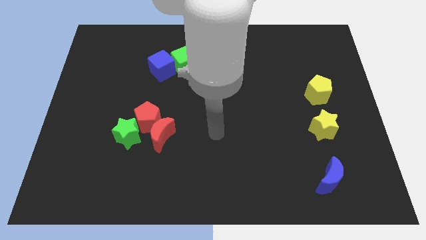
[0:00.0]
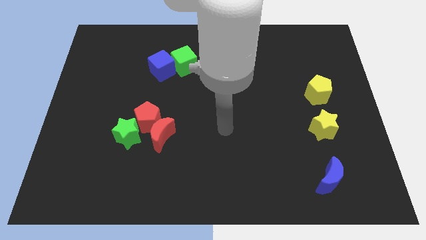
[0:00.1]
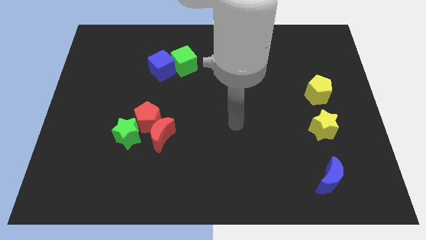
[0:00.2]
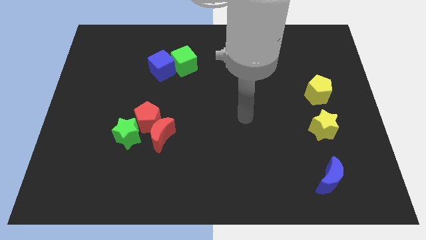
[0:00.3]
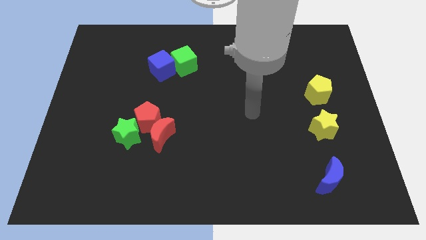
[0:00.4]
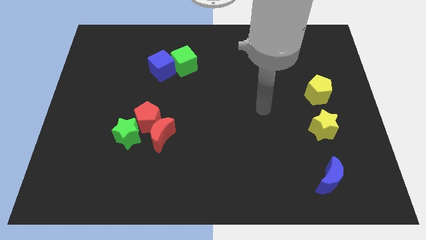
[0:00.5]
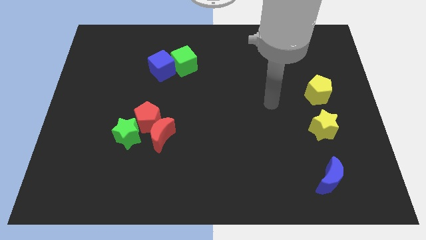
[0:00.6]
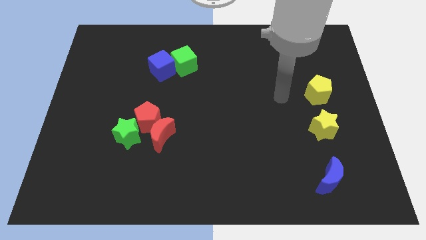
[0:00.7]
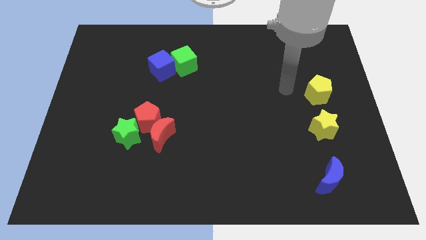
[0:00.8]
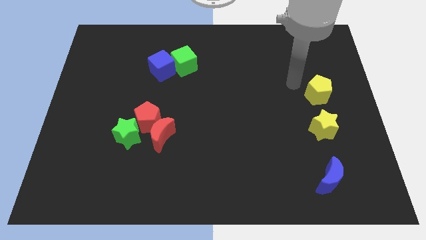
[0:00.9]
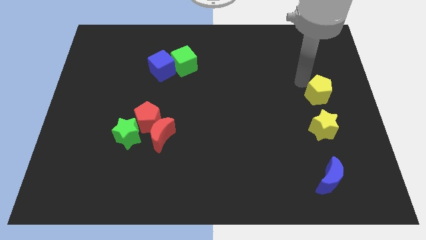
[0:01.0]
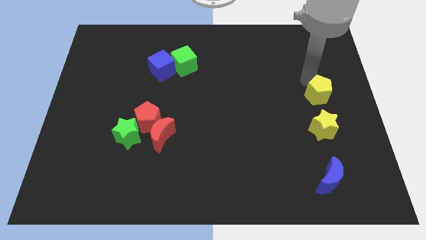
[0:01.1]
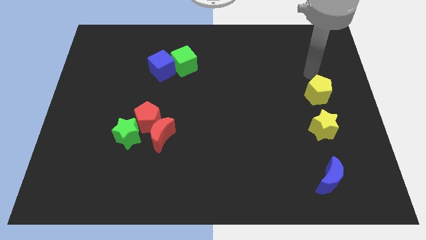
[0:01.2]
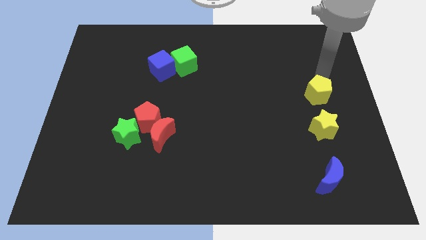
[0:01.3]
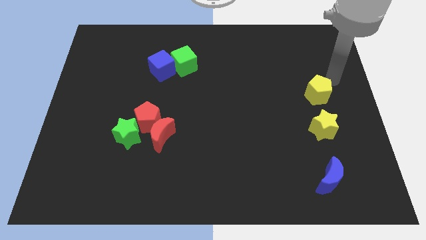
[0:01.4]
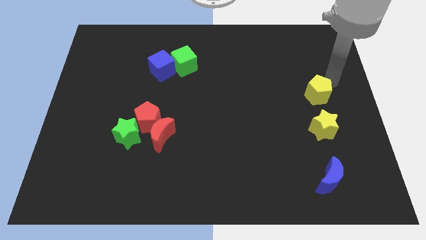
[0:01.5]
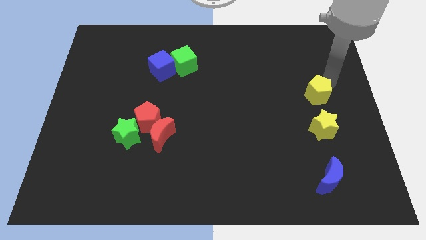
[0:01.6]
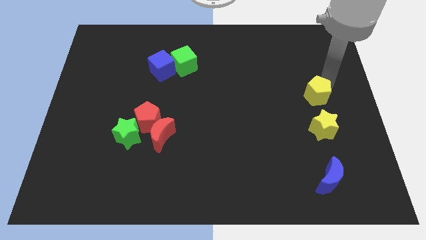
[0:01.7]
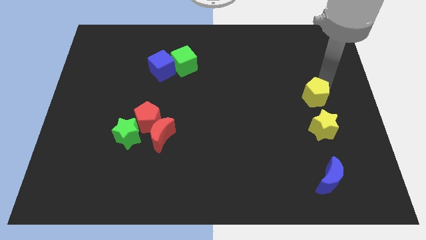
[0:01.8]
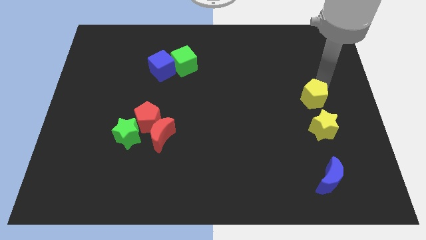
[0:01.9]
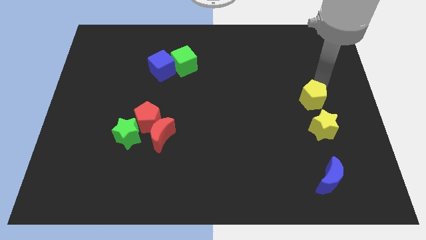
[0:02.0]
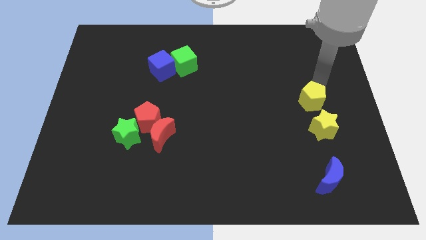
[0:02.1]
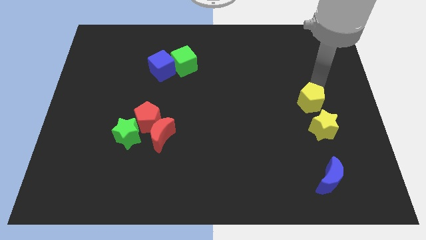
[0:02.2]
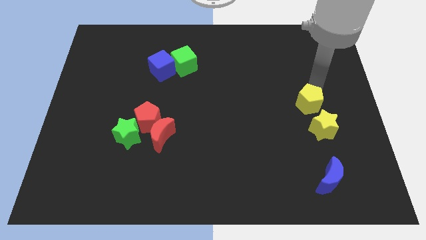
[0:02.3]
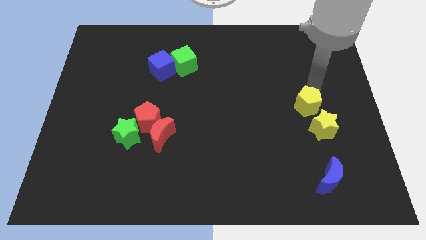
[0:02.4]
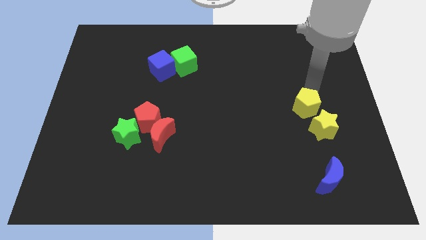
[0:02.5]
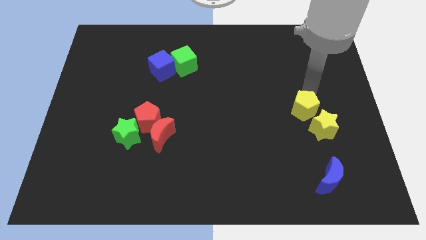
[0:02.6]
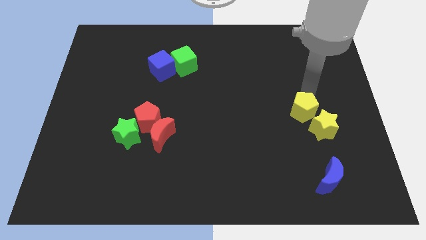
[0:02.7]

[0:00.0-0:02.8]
slightly slide the yellow pentagon down and to the left diagonally

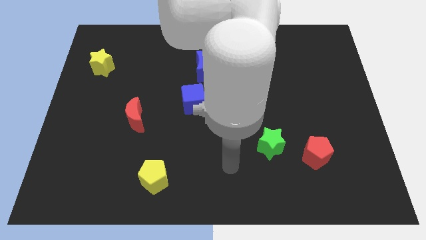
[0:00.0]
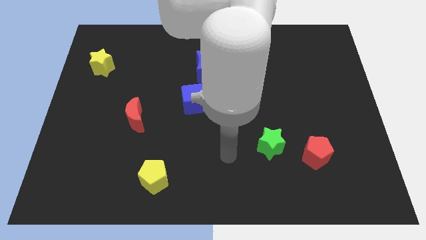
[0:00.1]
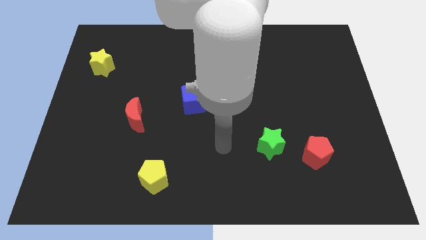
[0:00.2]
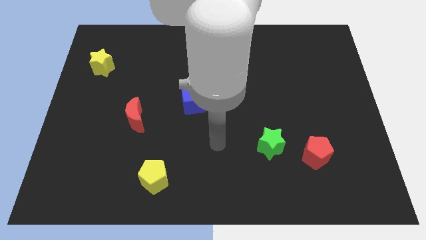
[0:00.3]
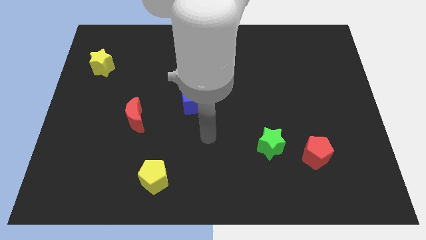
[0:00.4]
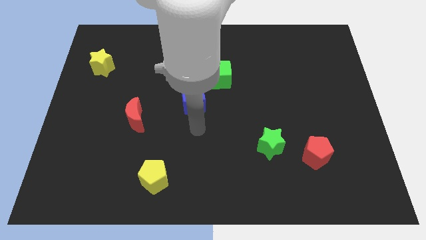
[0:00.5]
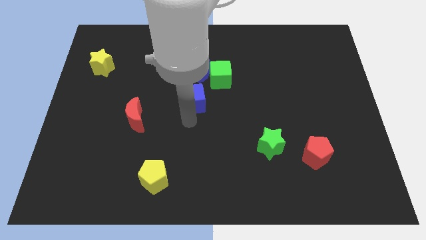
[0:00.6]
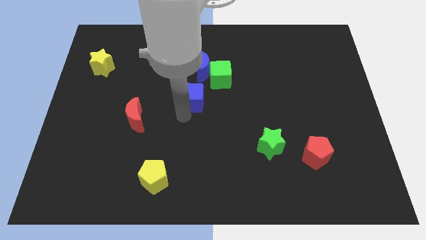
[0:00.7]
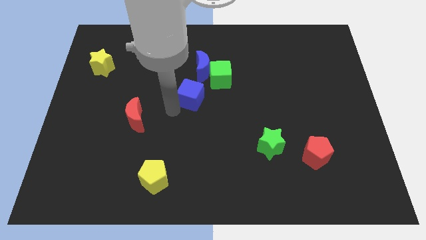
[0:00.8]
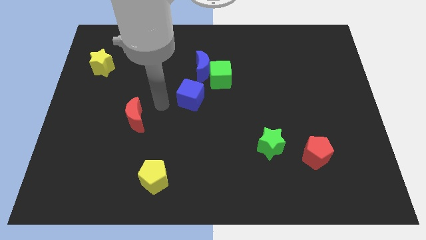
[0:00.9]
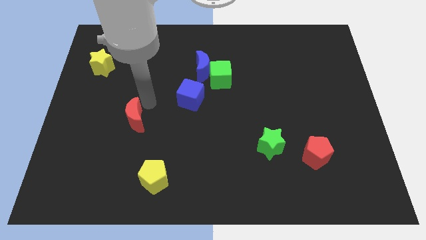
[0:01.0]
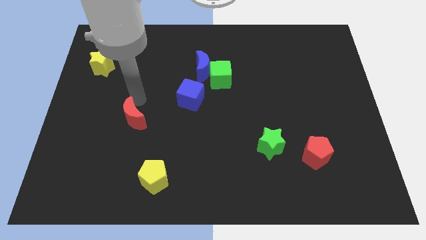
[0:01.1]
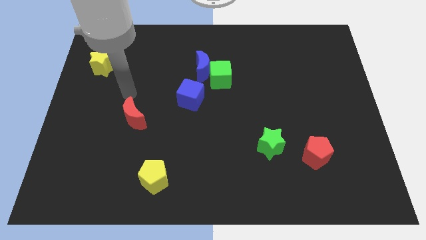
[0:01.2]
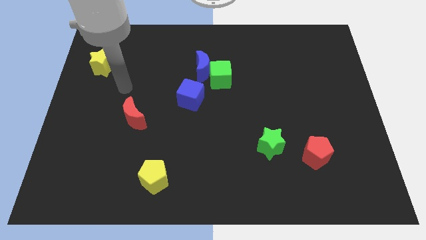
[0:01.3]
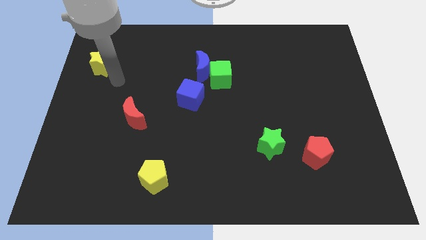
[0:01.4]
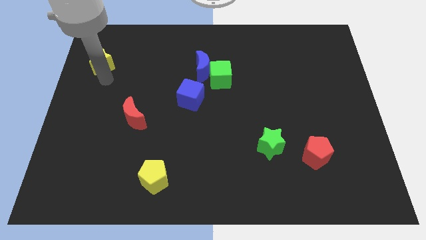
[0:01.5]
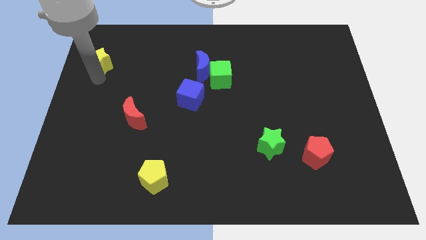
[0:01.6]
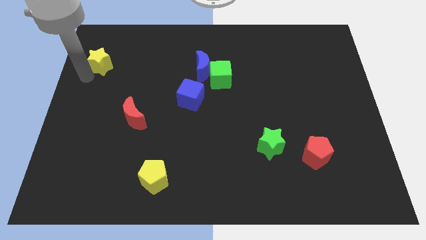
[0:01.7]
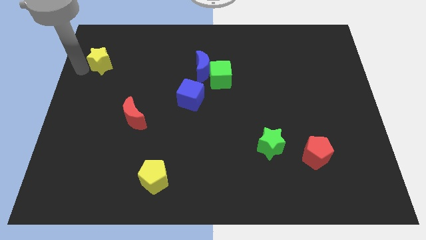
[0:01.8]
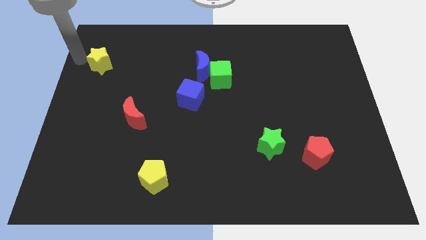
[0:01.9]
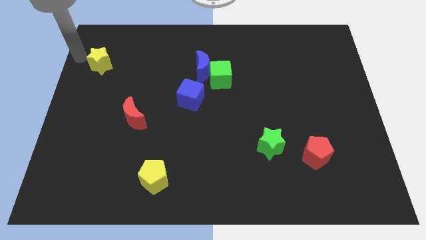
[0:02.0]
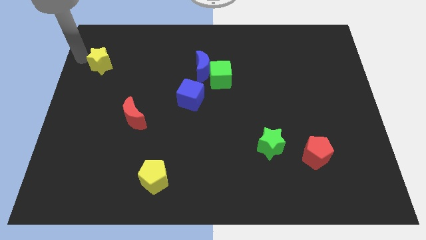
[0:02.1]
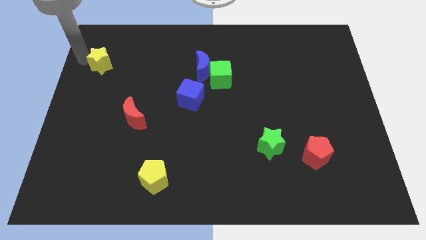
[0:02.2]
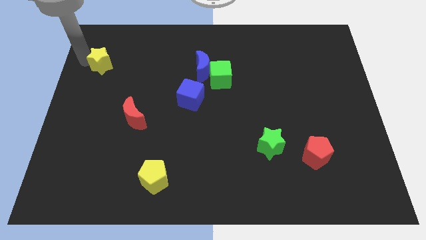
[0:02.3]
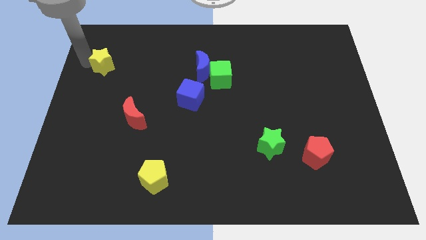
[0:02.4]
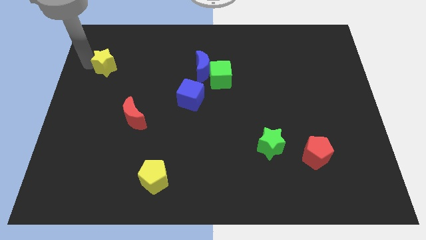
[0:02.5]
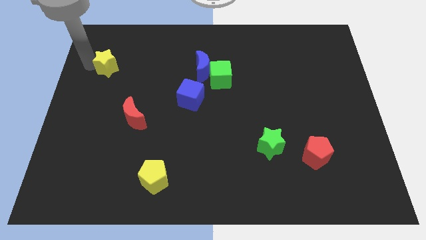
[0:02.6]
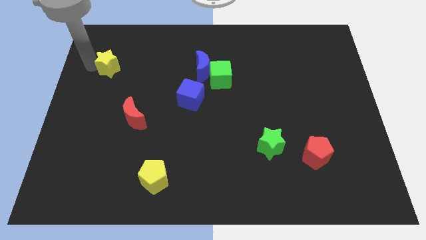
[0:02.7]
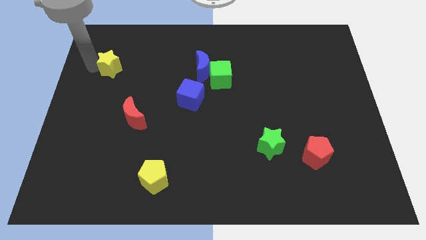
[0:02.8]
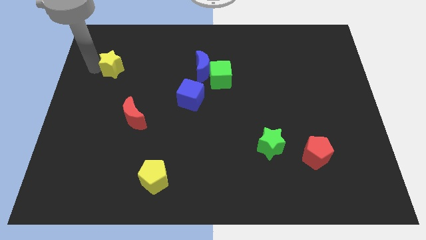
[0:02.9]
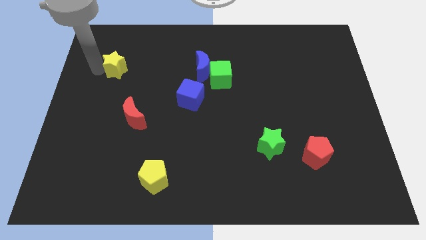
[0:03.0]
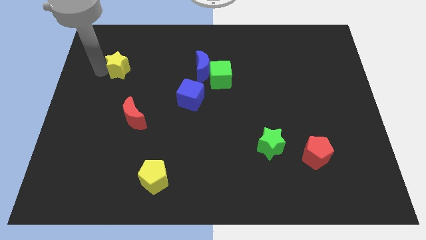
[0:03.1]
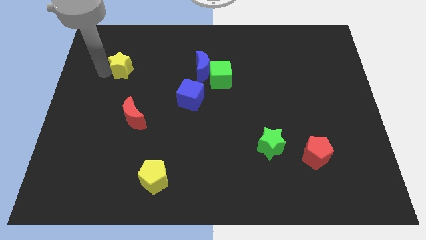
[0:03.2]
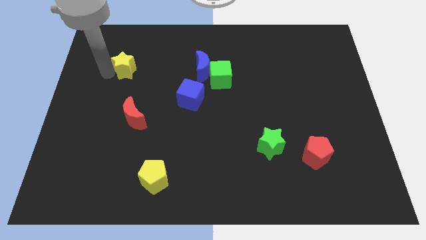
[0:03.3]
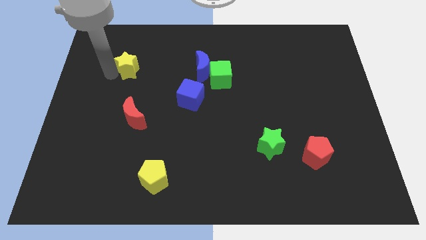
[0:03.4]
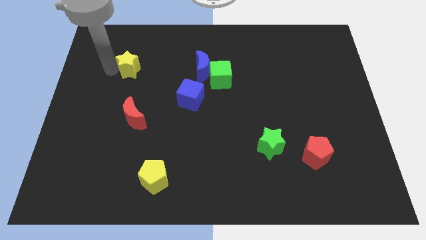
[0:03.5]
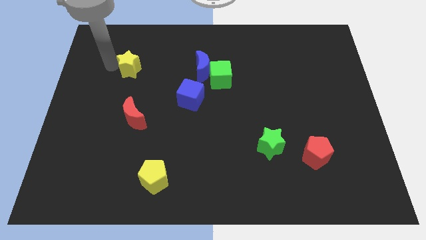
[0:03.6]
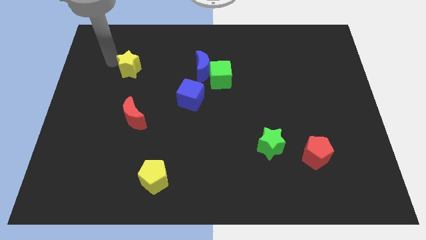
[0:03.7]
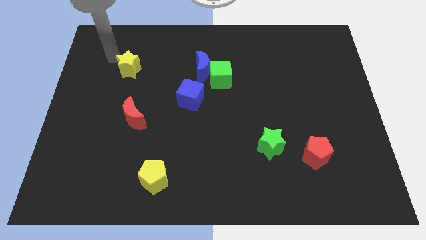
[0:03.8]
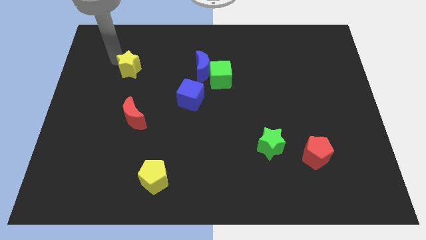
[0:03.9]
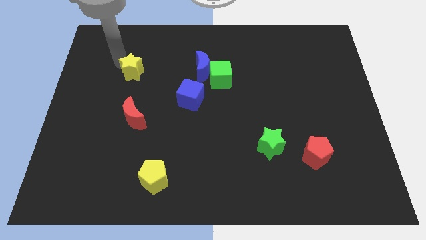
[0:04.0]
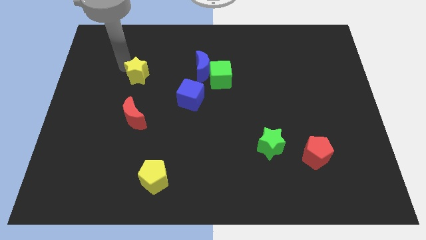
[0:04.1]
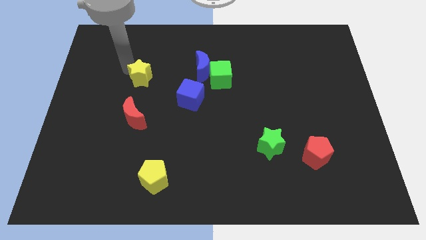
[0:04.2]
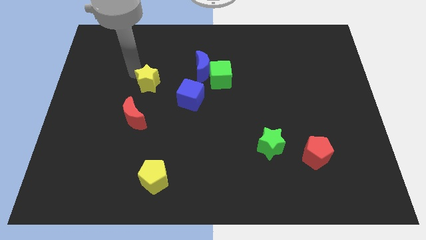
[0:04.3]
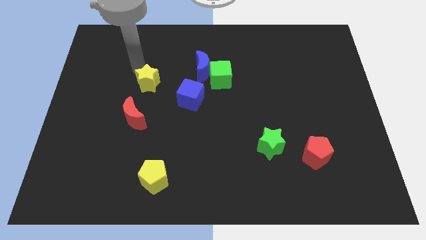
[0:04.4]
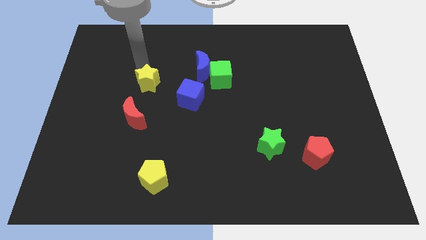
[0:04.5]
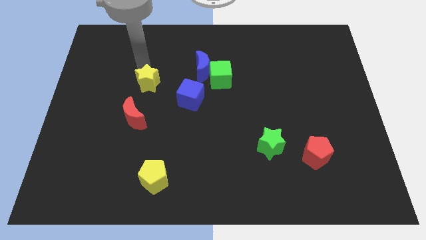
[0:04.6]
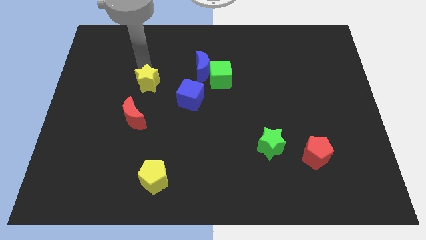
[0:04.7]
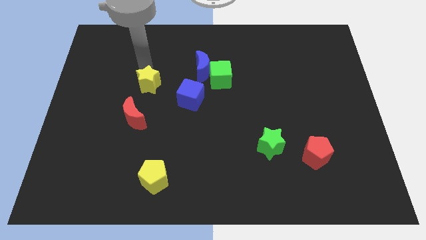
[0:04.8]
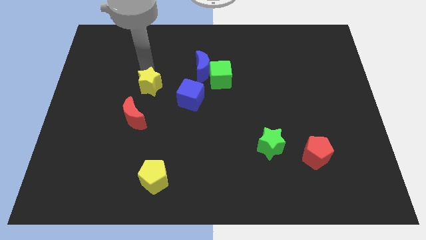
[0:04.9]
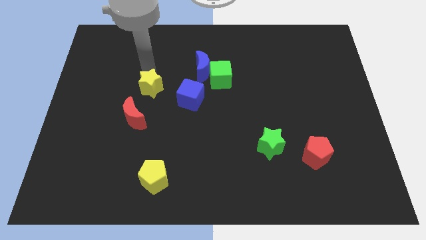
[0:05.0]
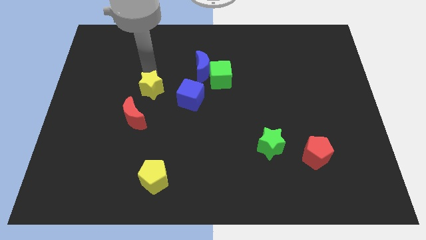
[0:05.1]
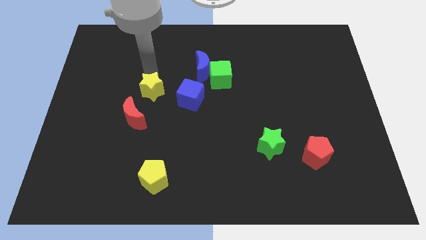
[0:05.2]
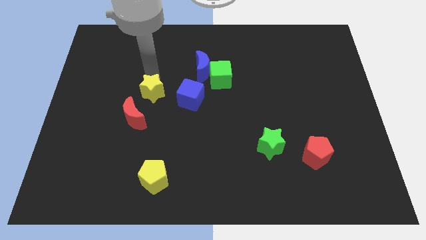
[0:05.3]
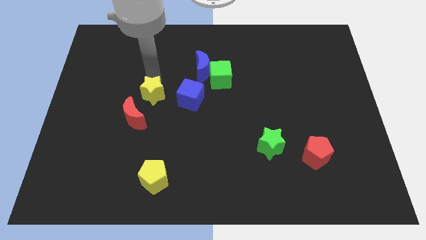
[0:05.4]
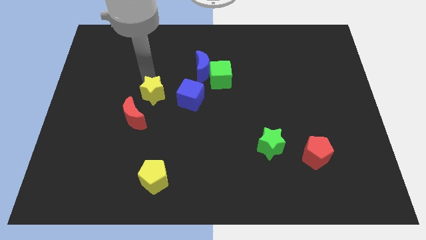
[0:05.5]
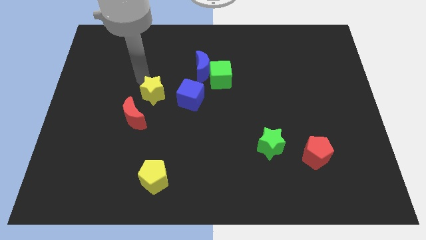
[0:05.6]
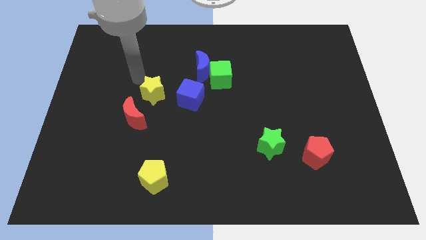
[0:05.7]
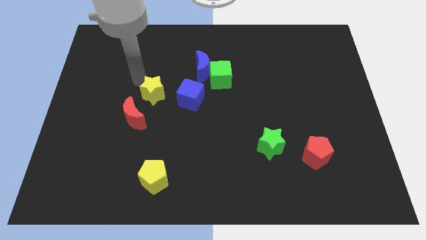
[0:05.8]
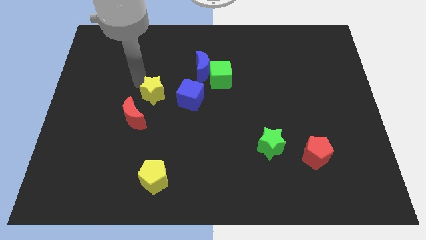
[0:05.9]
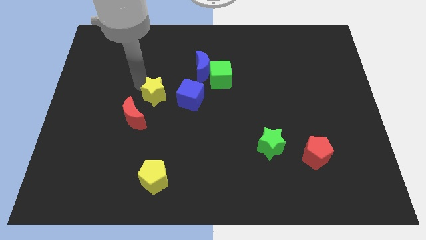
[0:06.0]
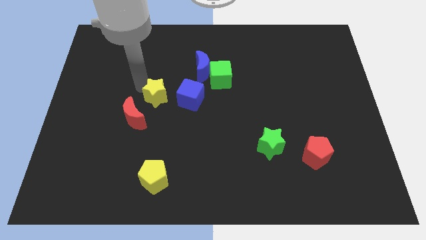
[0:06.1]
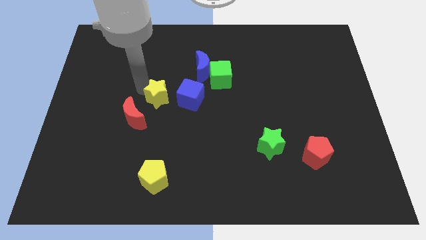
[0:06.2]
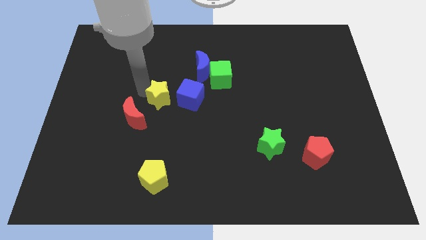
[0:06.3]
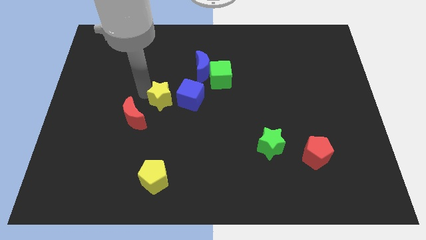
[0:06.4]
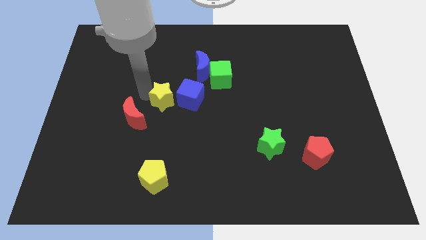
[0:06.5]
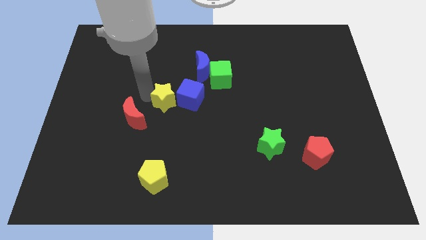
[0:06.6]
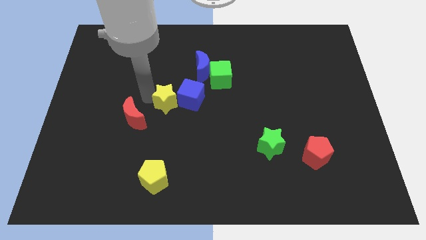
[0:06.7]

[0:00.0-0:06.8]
move the yellow star diagonally down and right
